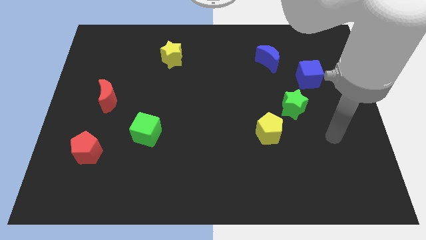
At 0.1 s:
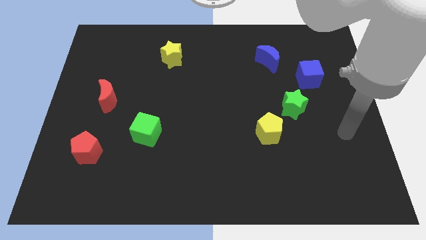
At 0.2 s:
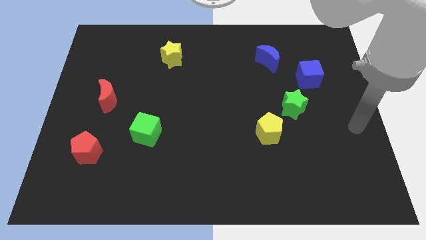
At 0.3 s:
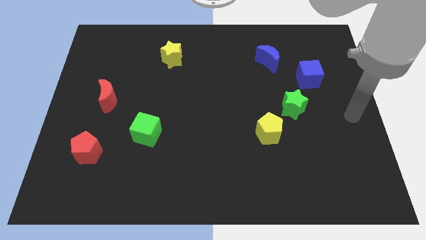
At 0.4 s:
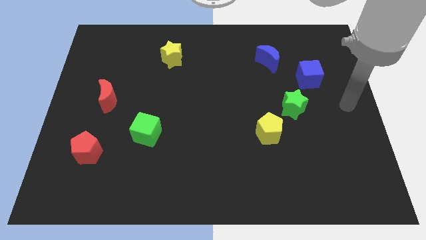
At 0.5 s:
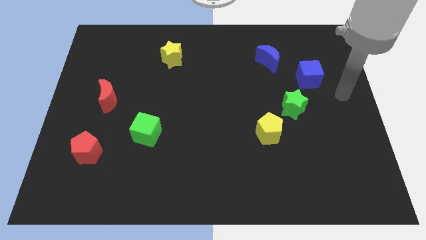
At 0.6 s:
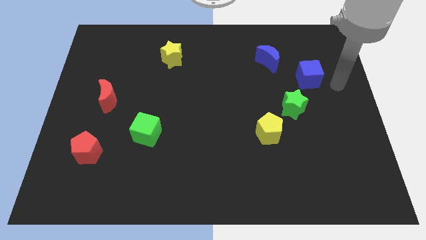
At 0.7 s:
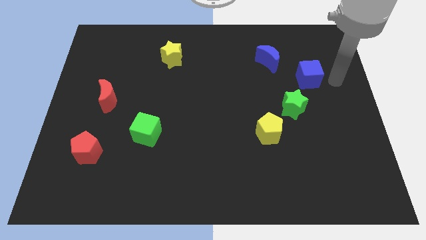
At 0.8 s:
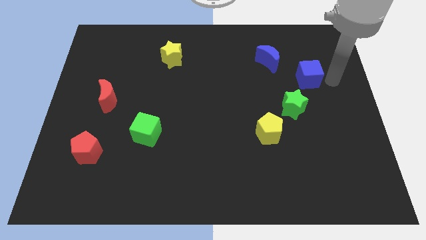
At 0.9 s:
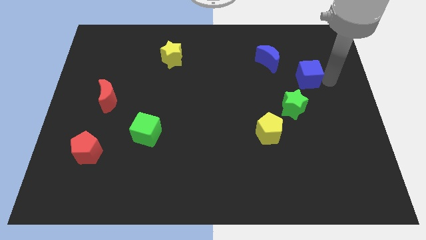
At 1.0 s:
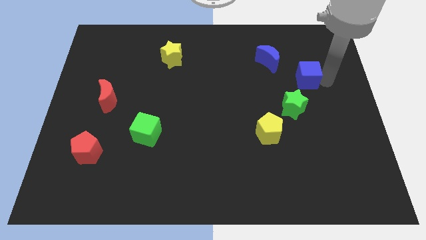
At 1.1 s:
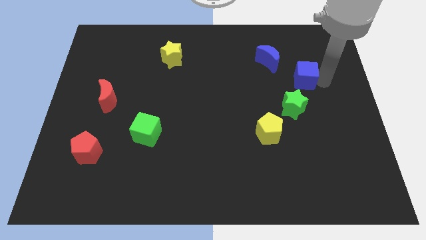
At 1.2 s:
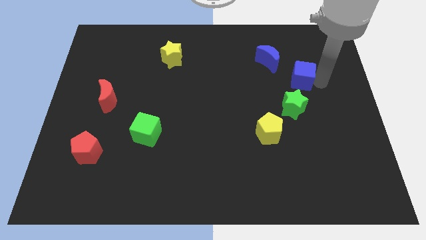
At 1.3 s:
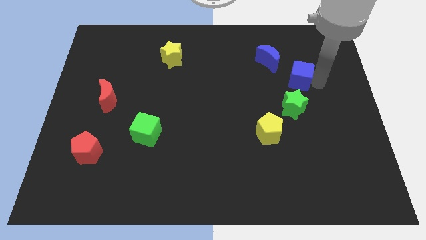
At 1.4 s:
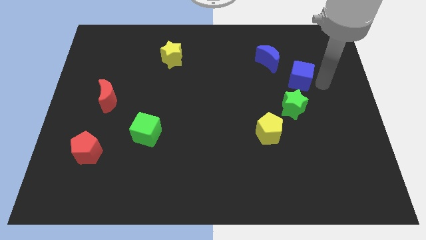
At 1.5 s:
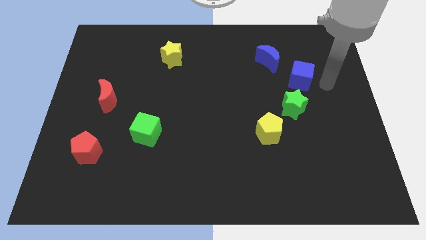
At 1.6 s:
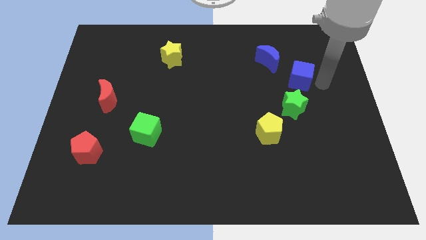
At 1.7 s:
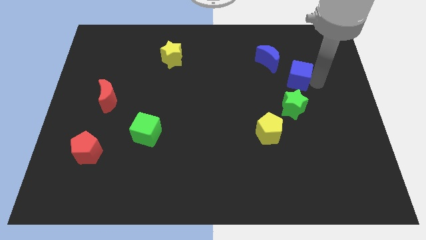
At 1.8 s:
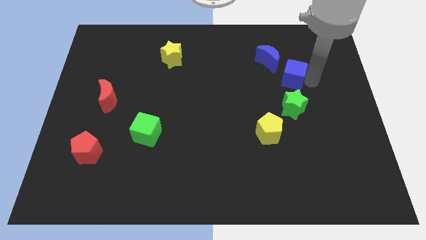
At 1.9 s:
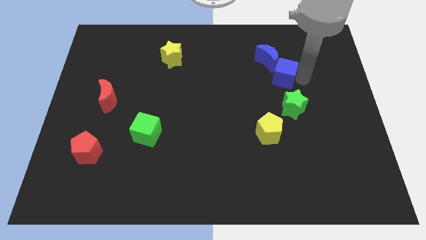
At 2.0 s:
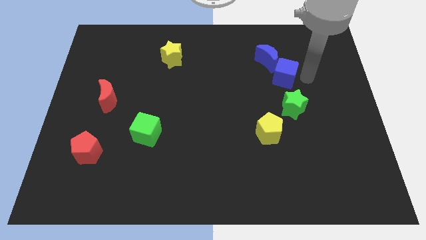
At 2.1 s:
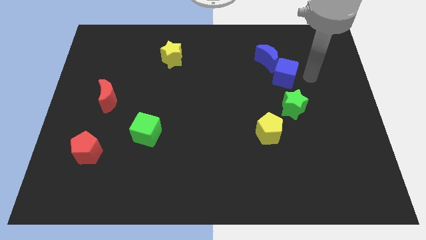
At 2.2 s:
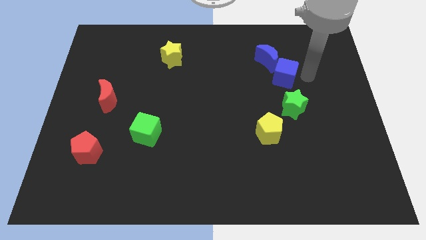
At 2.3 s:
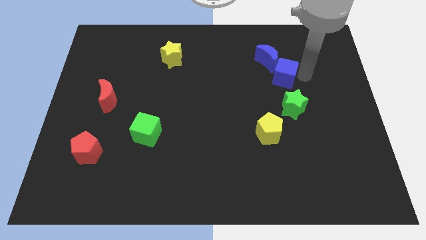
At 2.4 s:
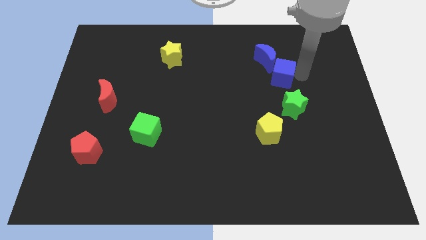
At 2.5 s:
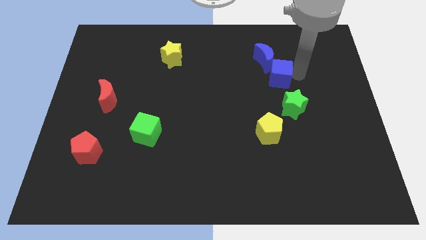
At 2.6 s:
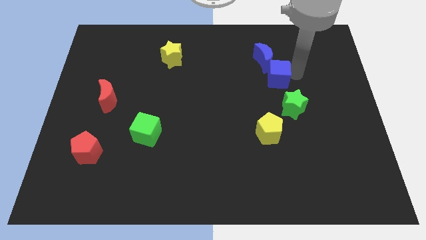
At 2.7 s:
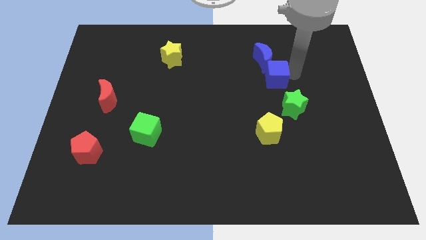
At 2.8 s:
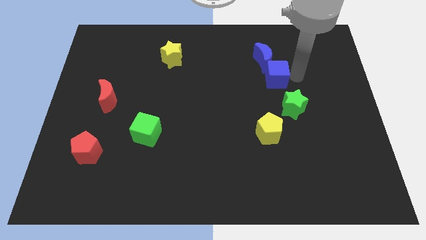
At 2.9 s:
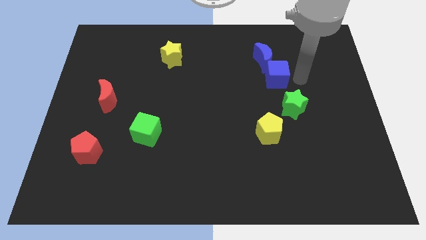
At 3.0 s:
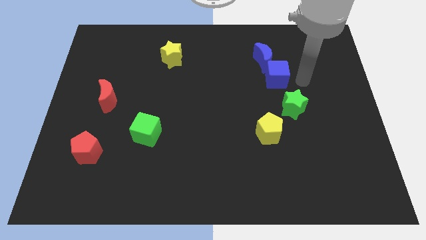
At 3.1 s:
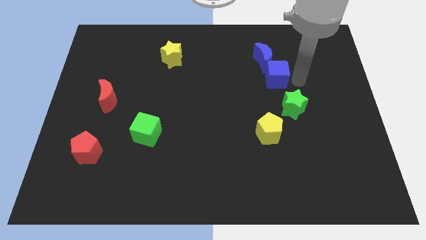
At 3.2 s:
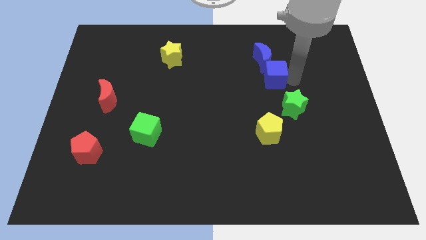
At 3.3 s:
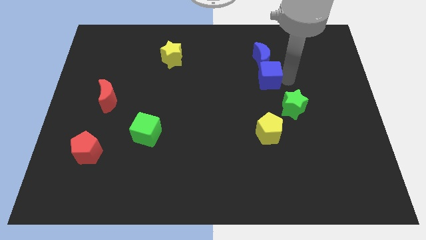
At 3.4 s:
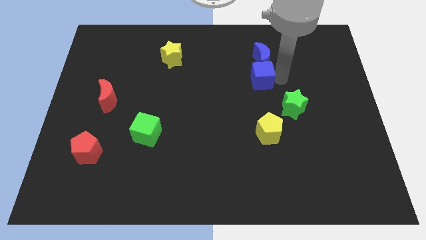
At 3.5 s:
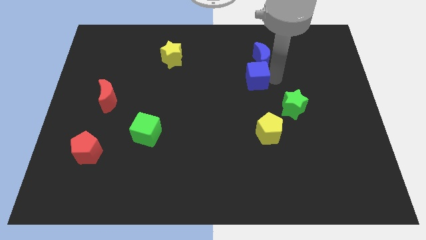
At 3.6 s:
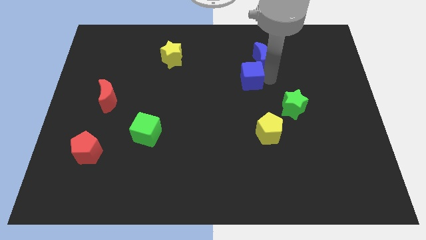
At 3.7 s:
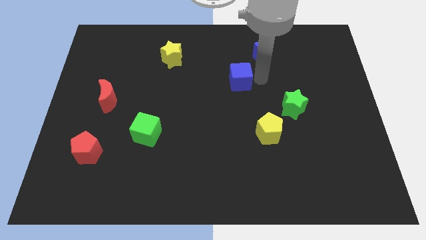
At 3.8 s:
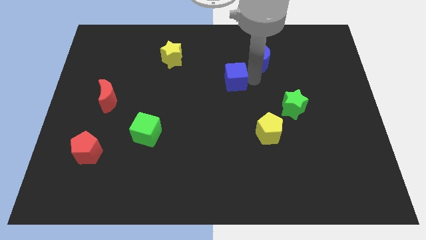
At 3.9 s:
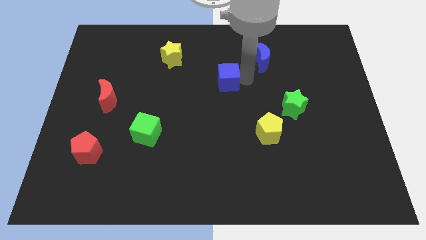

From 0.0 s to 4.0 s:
push the blue cube left

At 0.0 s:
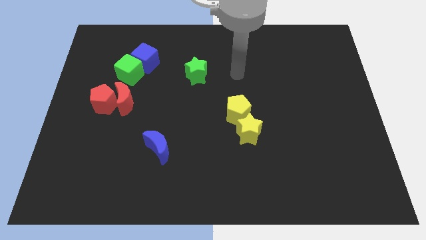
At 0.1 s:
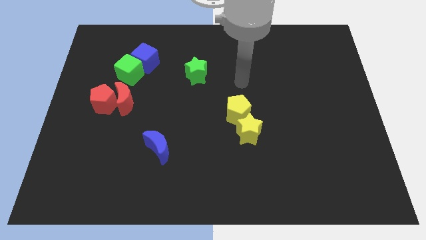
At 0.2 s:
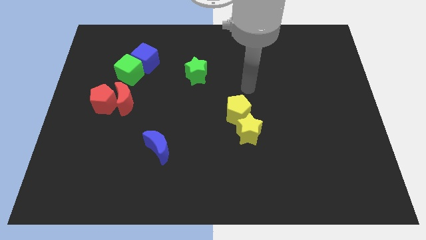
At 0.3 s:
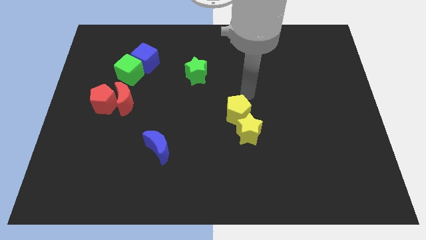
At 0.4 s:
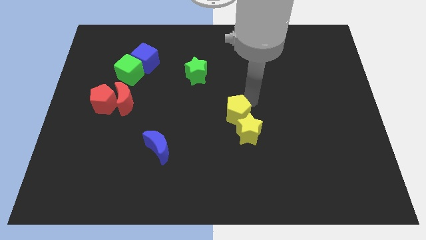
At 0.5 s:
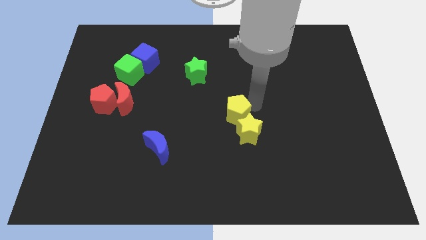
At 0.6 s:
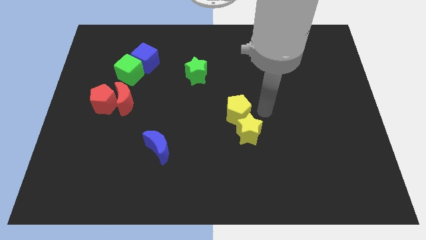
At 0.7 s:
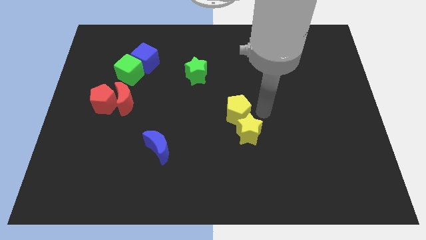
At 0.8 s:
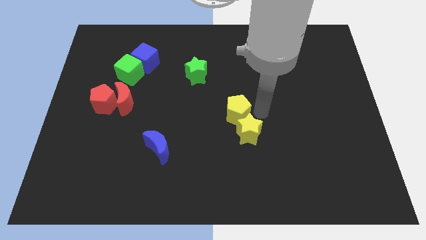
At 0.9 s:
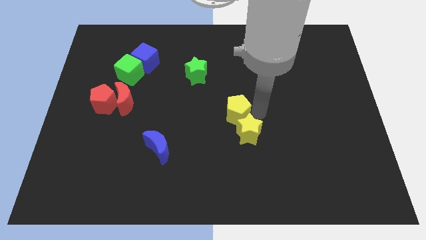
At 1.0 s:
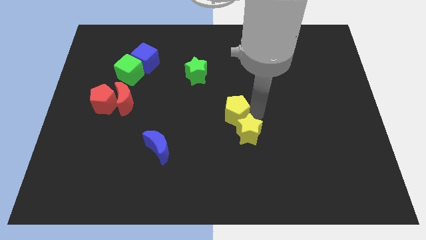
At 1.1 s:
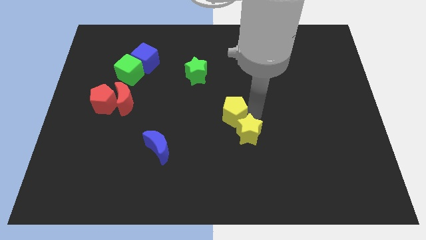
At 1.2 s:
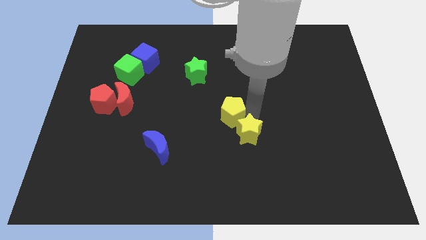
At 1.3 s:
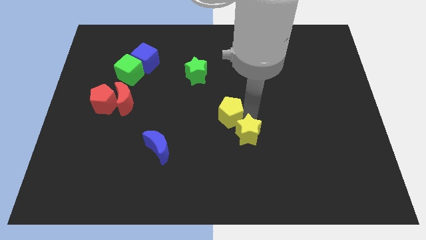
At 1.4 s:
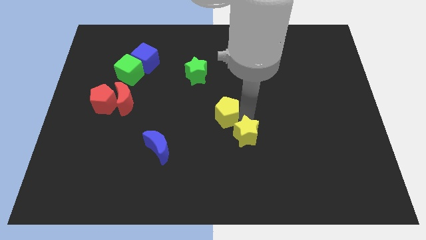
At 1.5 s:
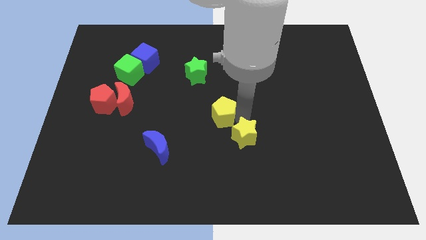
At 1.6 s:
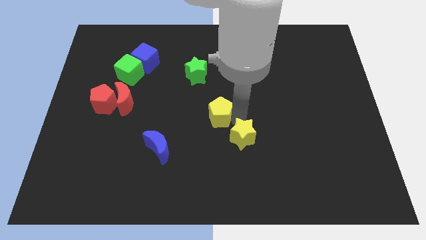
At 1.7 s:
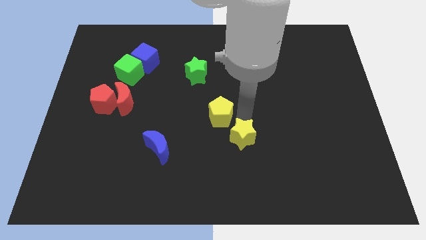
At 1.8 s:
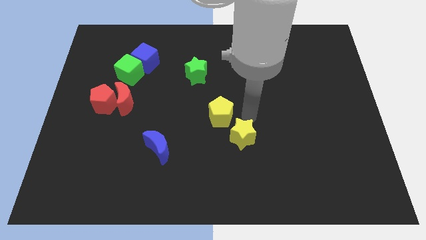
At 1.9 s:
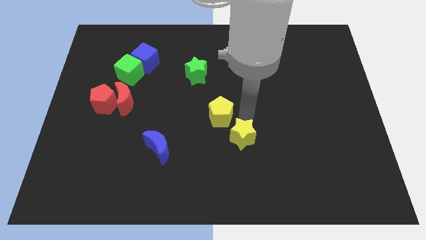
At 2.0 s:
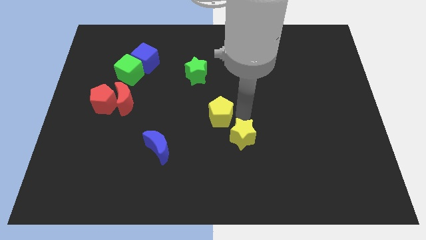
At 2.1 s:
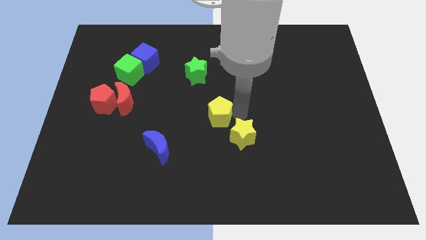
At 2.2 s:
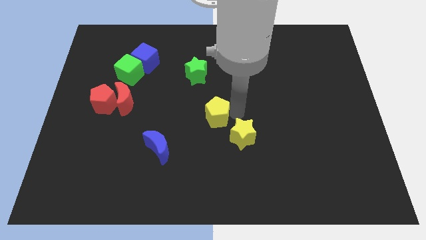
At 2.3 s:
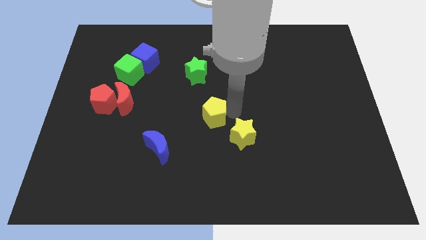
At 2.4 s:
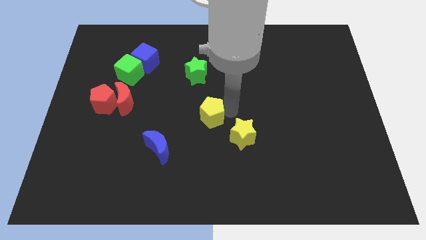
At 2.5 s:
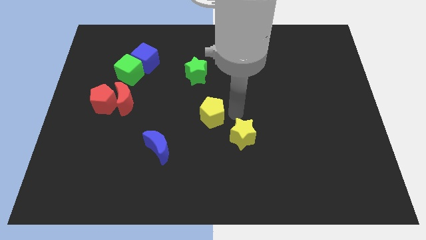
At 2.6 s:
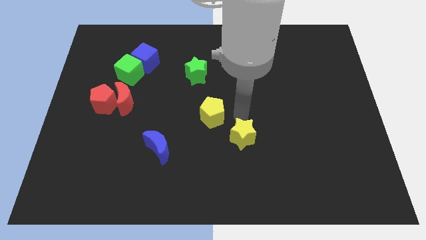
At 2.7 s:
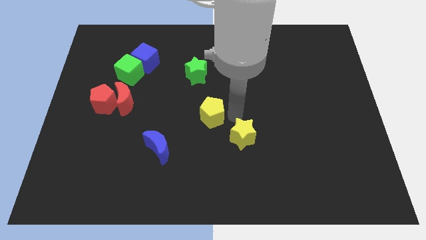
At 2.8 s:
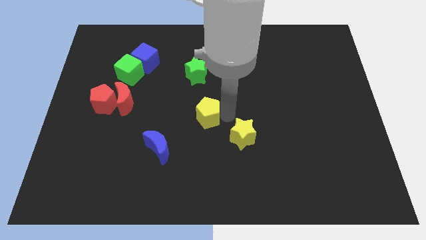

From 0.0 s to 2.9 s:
slide the yellow pentagon left a bit

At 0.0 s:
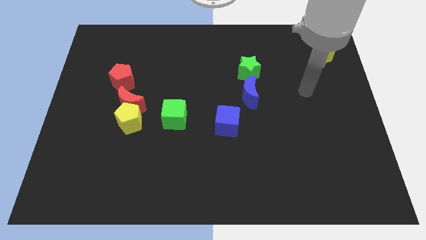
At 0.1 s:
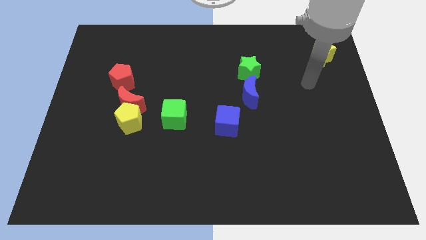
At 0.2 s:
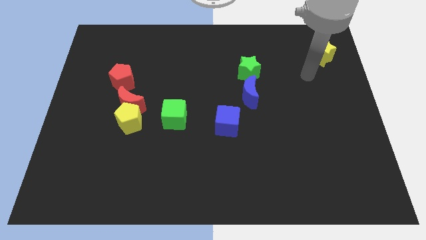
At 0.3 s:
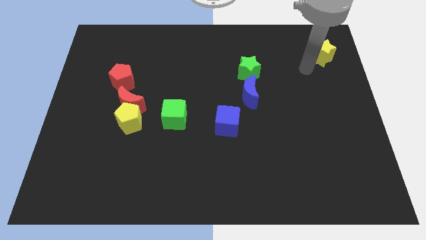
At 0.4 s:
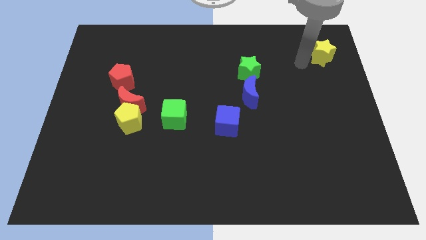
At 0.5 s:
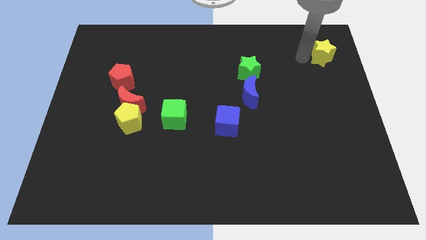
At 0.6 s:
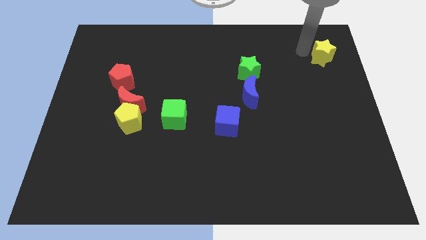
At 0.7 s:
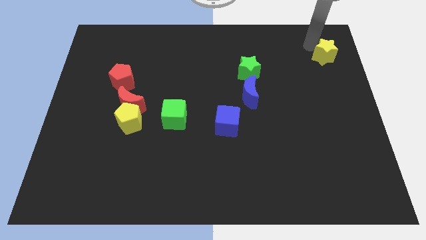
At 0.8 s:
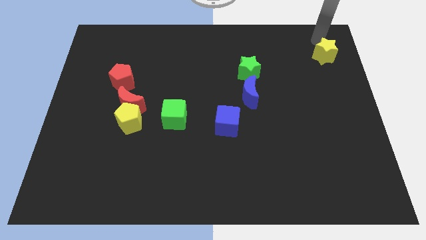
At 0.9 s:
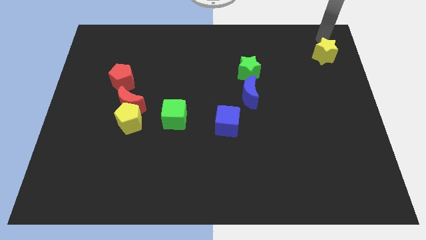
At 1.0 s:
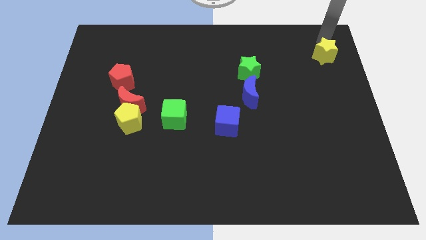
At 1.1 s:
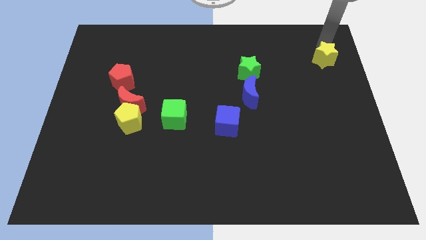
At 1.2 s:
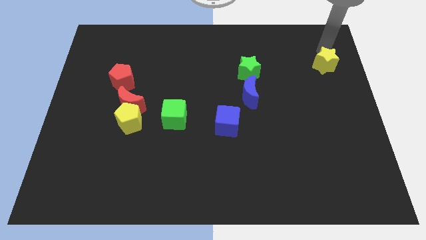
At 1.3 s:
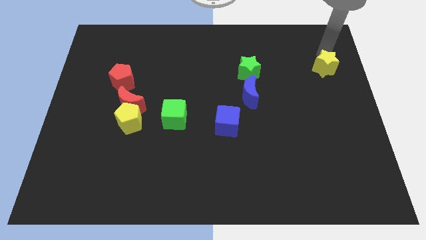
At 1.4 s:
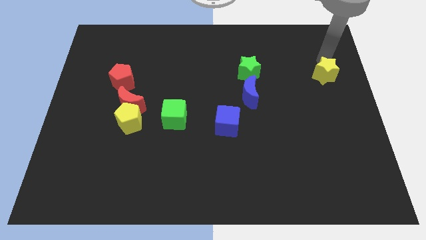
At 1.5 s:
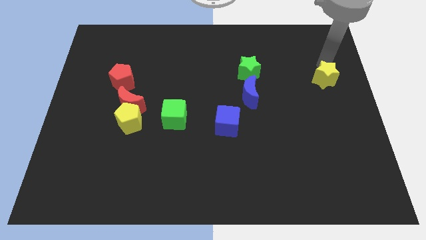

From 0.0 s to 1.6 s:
push the yellow star somewhat downwards
